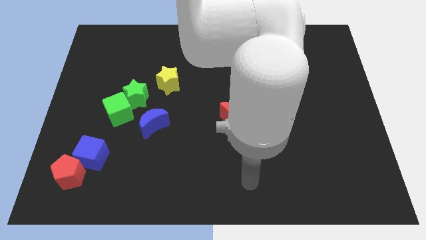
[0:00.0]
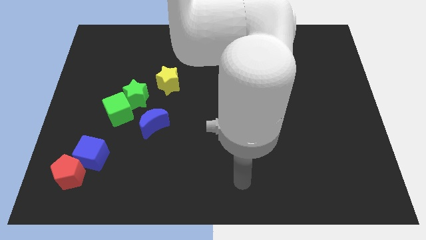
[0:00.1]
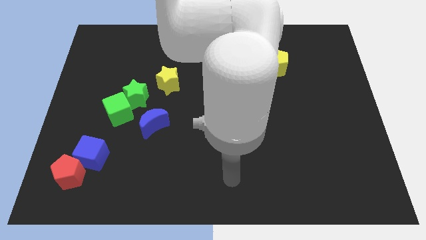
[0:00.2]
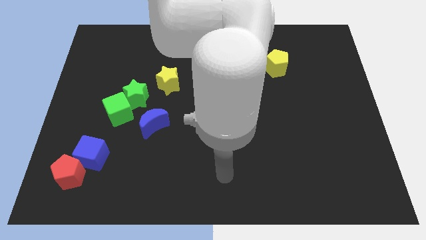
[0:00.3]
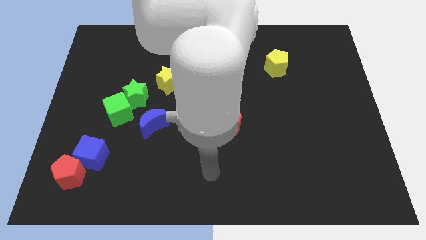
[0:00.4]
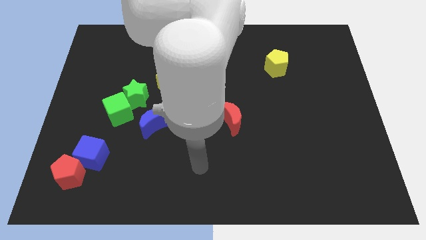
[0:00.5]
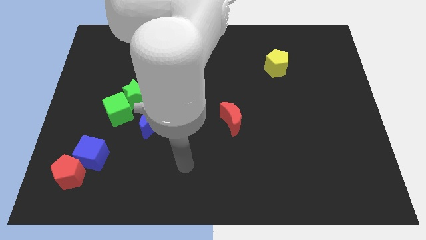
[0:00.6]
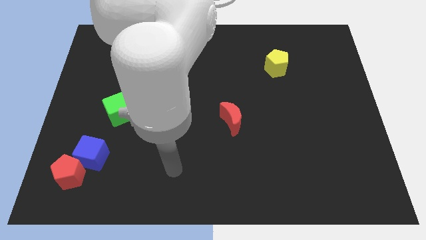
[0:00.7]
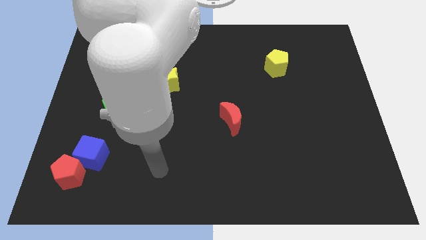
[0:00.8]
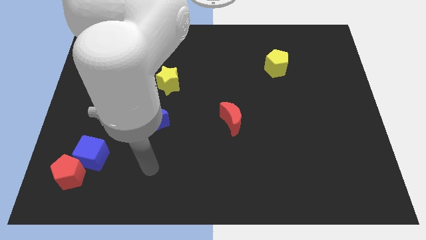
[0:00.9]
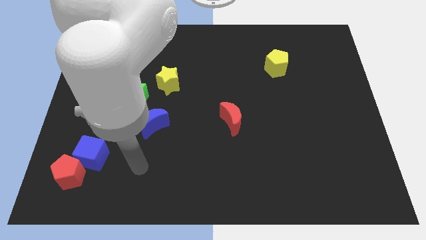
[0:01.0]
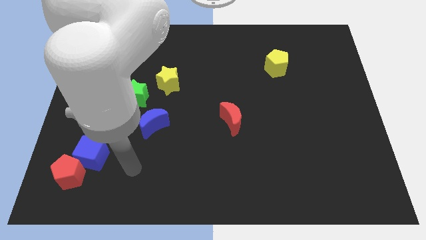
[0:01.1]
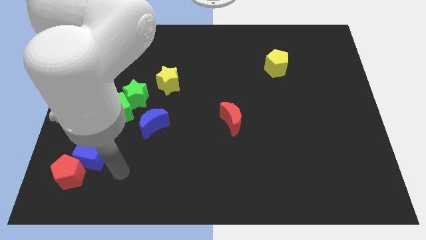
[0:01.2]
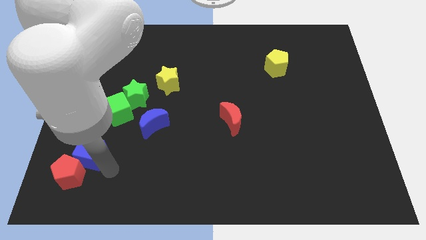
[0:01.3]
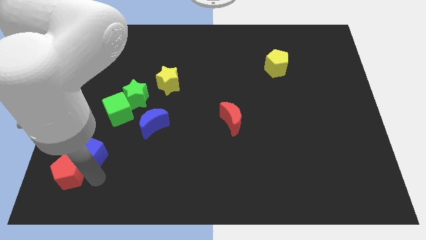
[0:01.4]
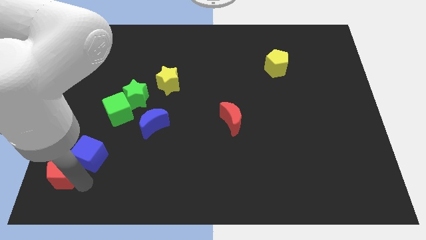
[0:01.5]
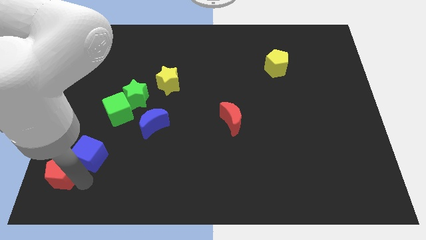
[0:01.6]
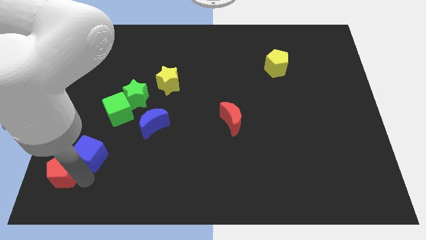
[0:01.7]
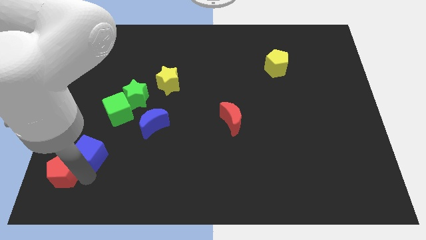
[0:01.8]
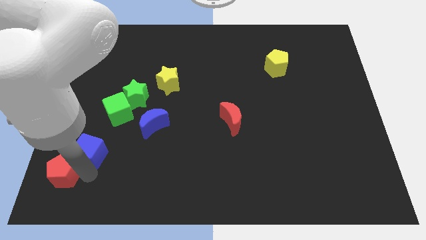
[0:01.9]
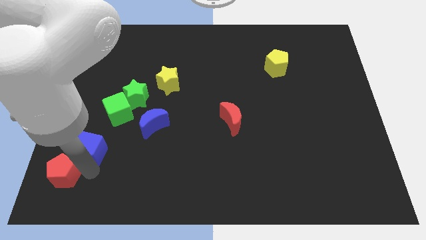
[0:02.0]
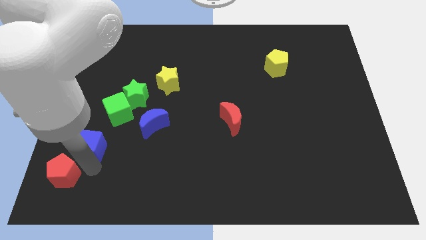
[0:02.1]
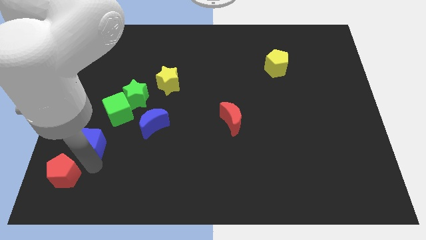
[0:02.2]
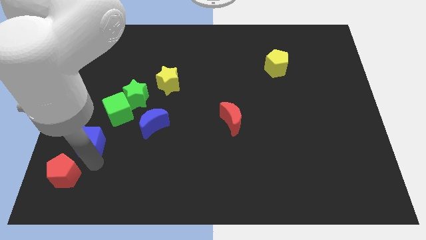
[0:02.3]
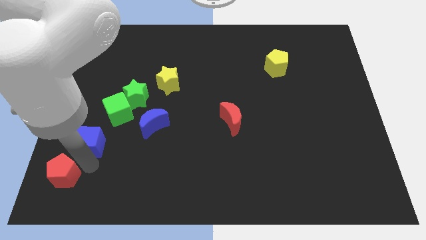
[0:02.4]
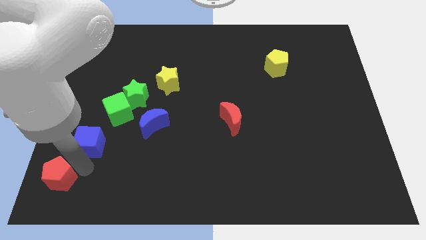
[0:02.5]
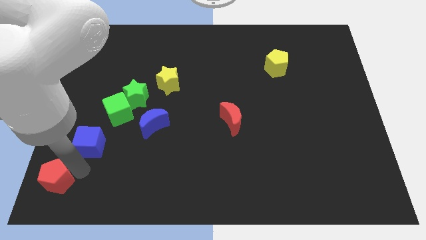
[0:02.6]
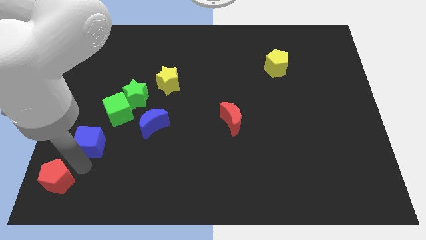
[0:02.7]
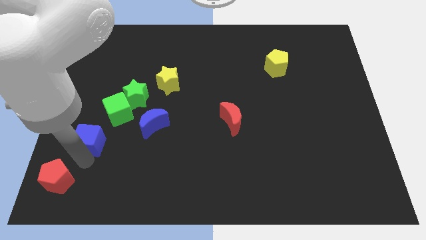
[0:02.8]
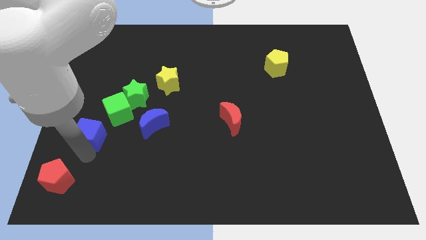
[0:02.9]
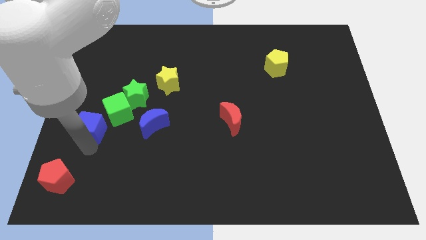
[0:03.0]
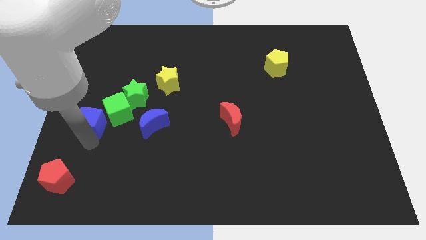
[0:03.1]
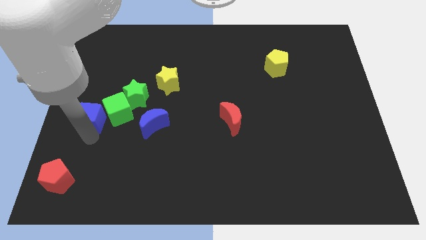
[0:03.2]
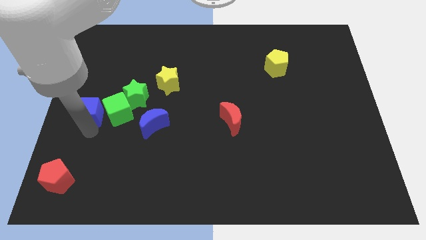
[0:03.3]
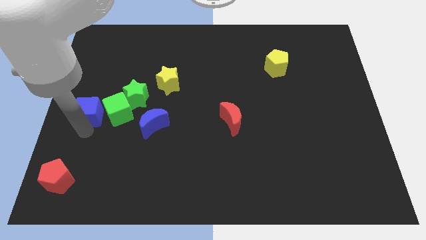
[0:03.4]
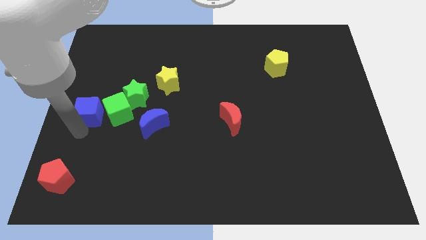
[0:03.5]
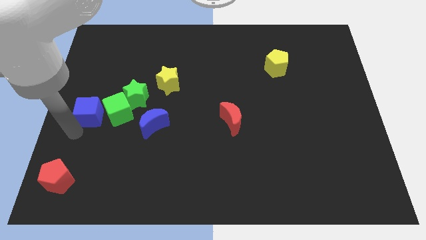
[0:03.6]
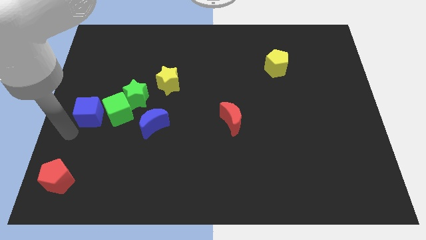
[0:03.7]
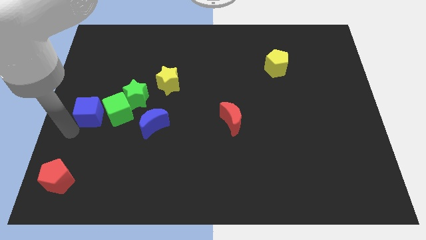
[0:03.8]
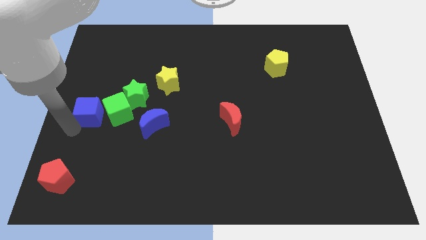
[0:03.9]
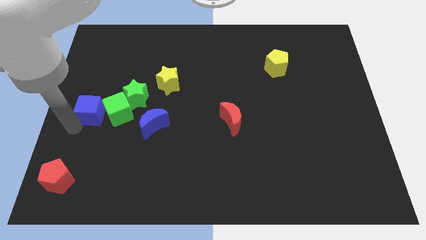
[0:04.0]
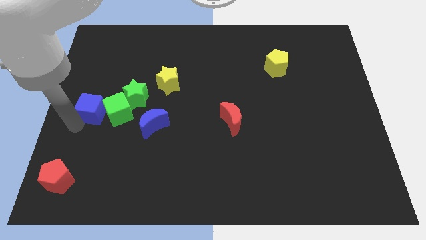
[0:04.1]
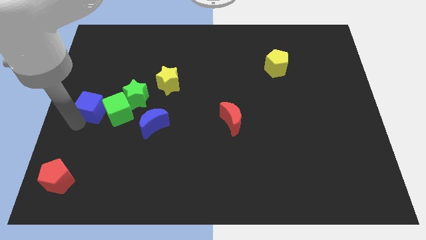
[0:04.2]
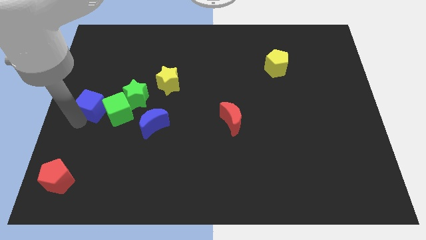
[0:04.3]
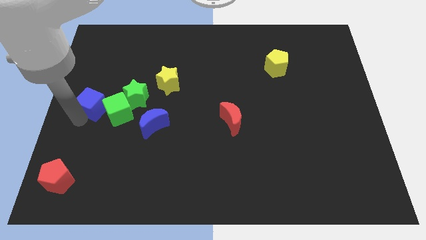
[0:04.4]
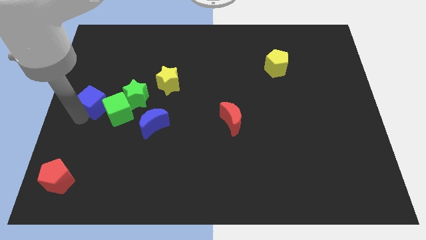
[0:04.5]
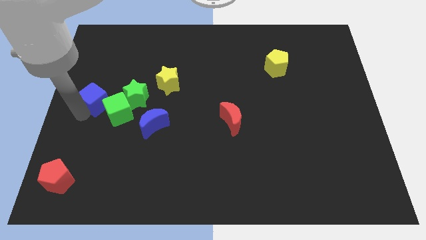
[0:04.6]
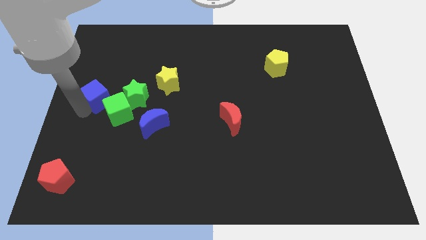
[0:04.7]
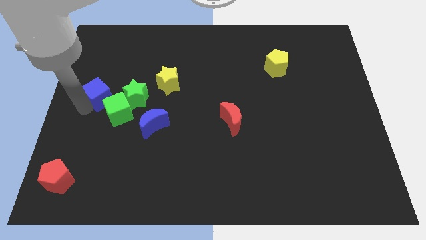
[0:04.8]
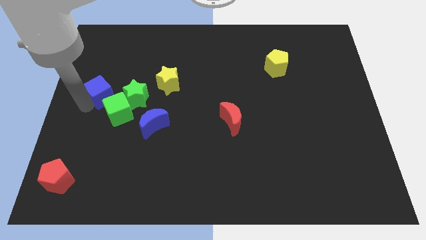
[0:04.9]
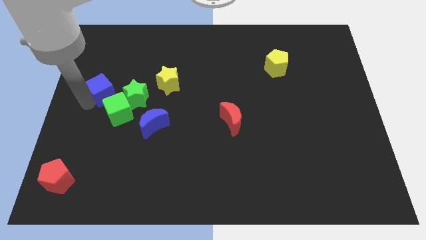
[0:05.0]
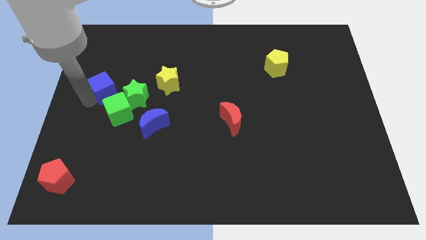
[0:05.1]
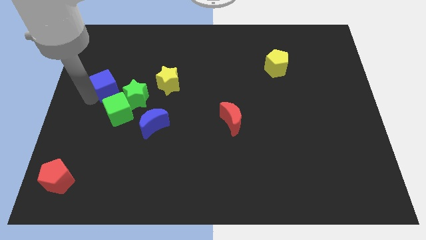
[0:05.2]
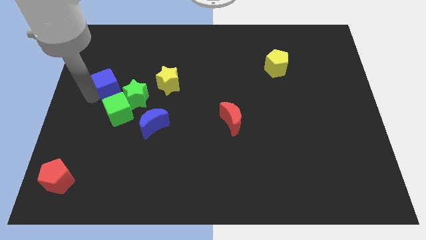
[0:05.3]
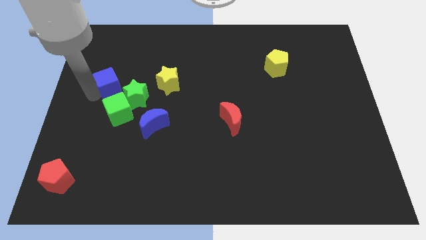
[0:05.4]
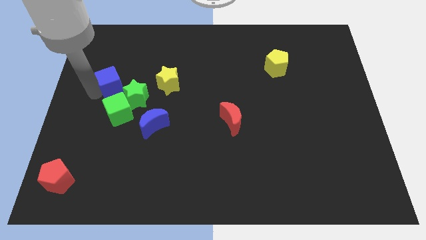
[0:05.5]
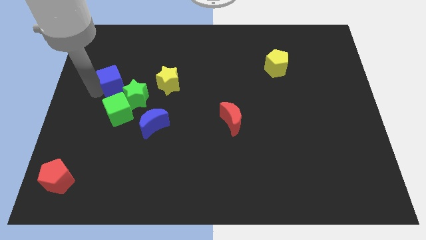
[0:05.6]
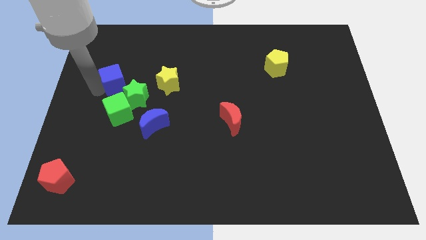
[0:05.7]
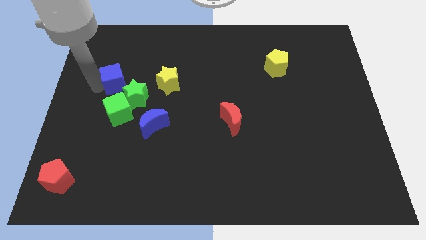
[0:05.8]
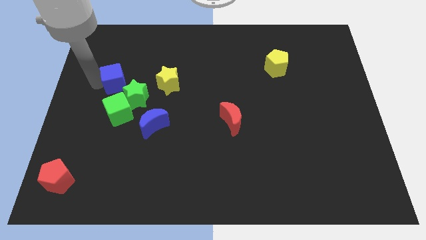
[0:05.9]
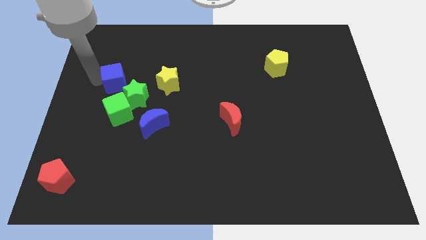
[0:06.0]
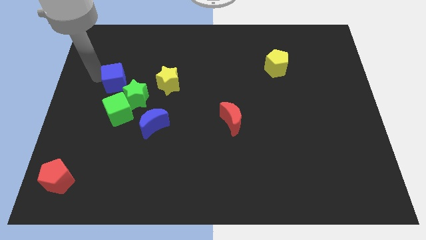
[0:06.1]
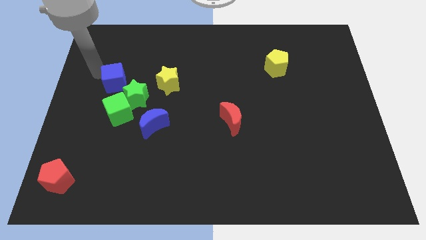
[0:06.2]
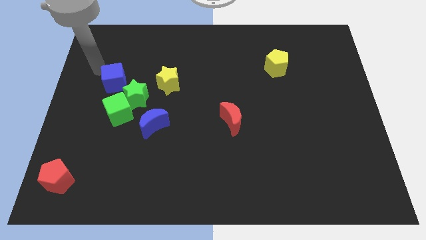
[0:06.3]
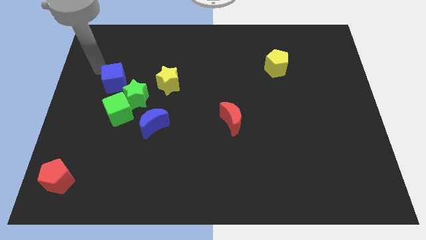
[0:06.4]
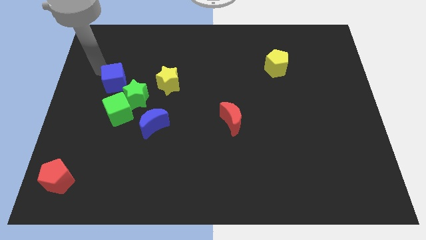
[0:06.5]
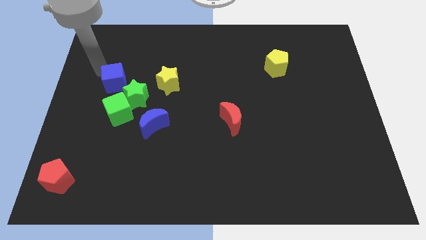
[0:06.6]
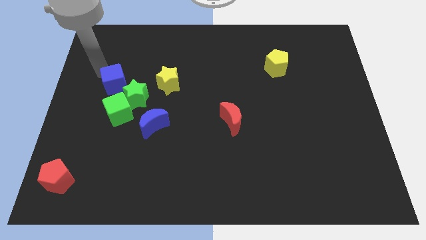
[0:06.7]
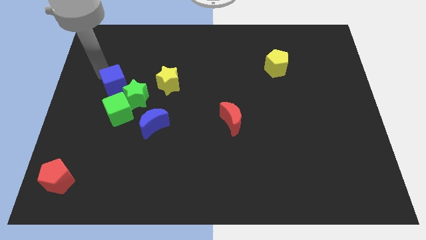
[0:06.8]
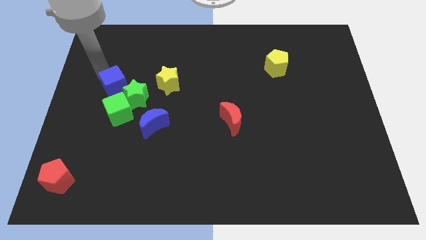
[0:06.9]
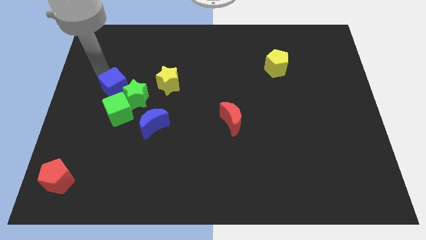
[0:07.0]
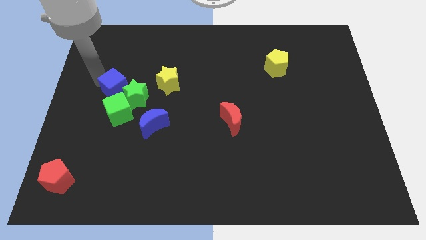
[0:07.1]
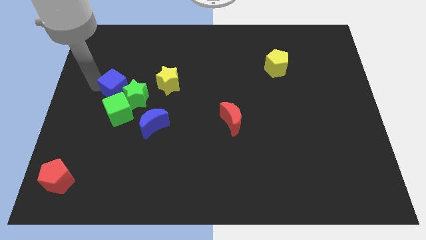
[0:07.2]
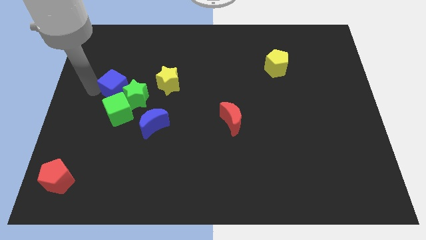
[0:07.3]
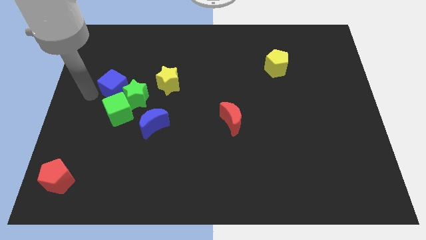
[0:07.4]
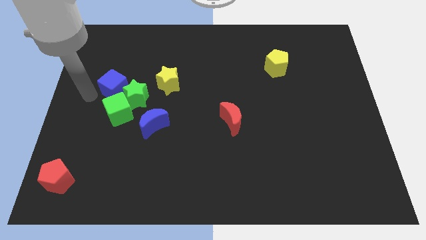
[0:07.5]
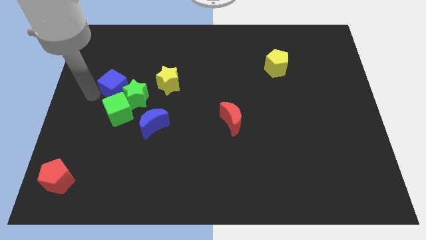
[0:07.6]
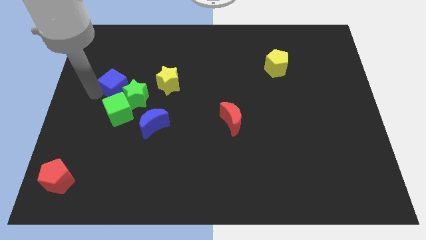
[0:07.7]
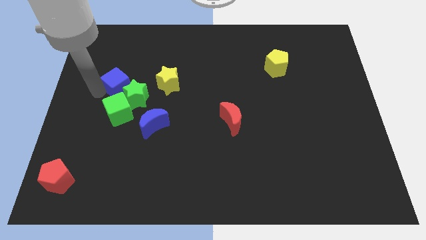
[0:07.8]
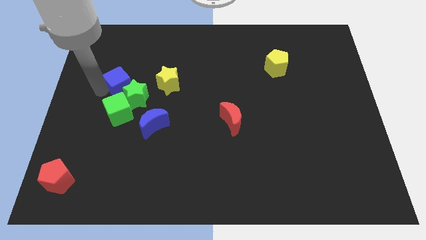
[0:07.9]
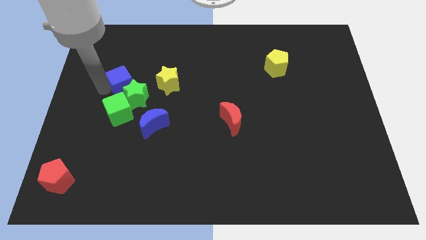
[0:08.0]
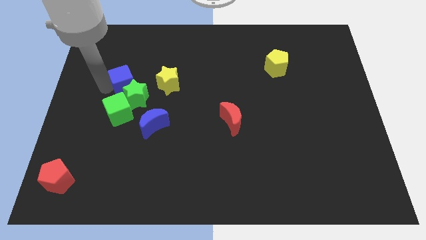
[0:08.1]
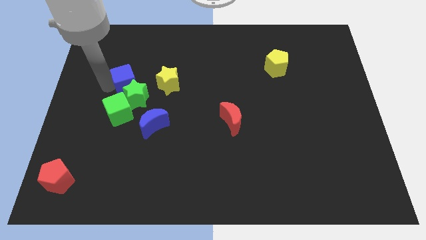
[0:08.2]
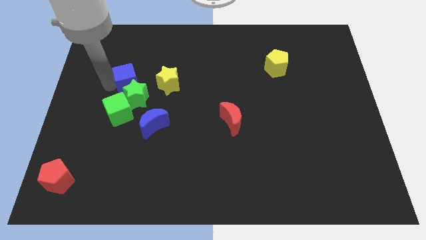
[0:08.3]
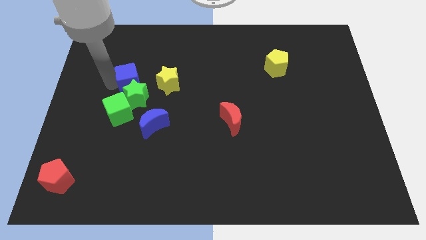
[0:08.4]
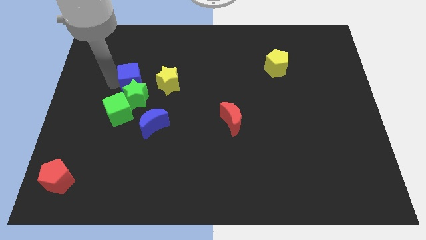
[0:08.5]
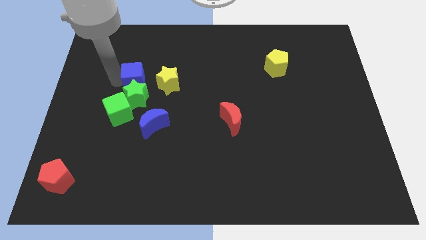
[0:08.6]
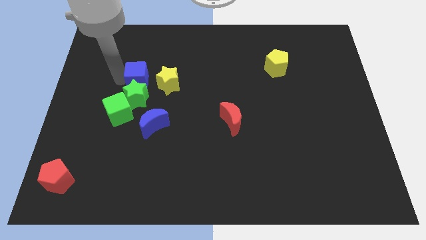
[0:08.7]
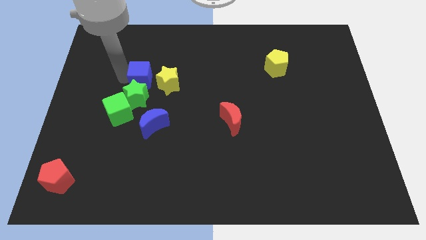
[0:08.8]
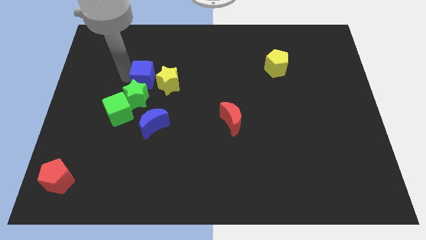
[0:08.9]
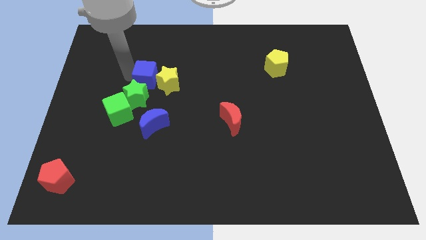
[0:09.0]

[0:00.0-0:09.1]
slide the blue cube towards the yellow star
